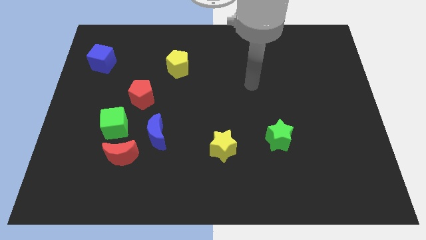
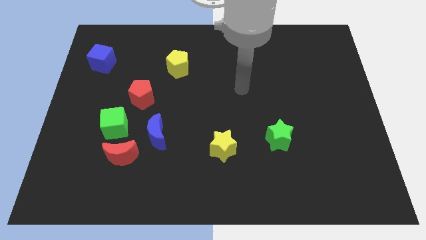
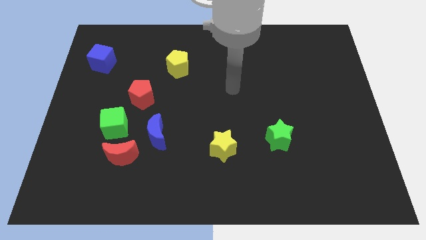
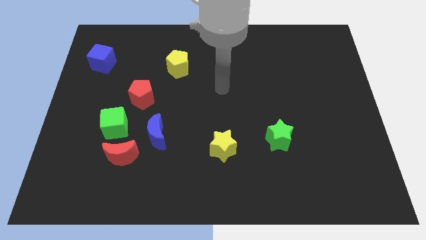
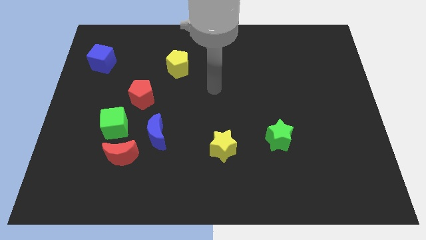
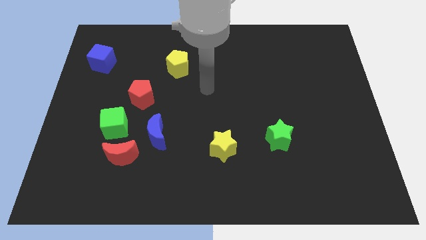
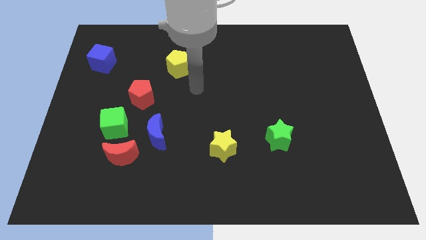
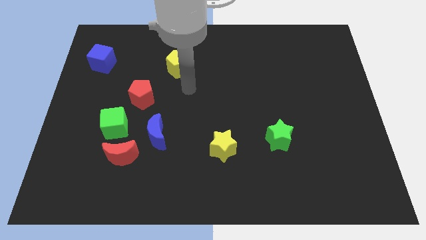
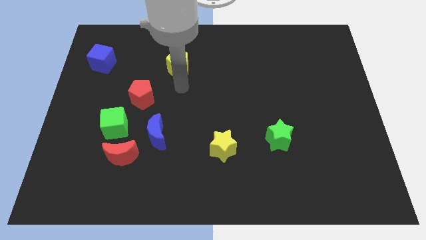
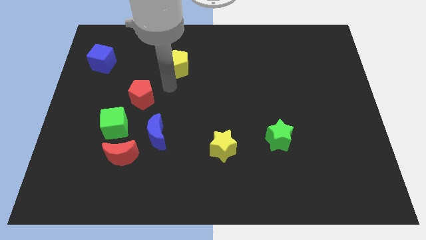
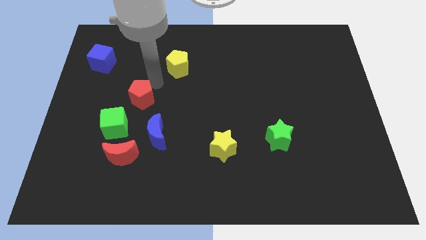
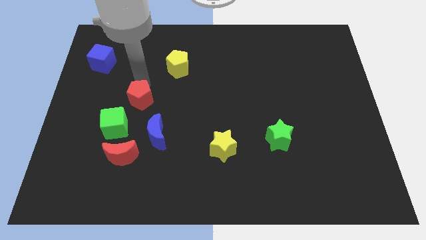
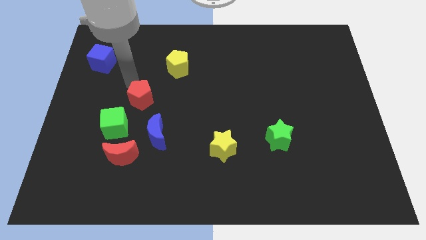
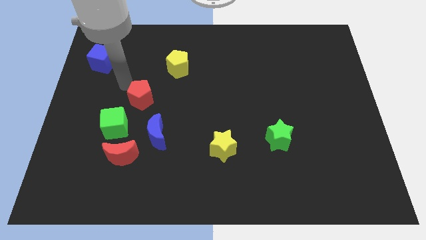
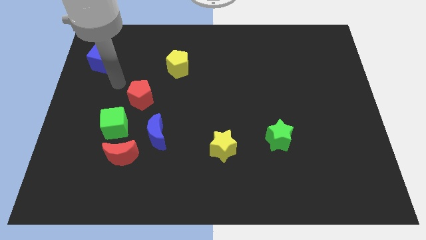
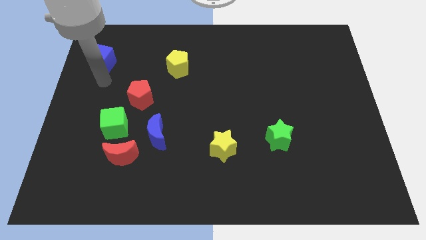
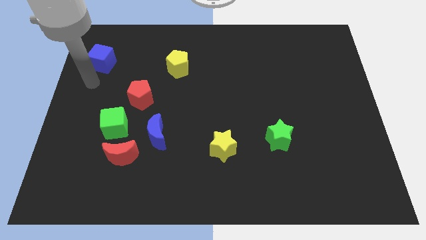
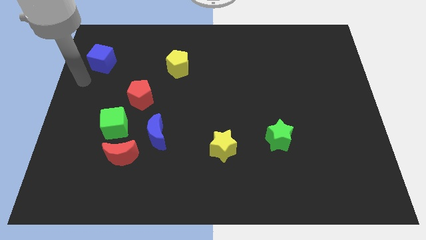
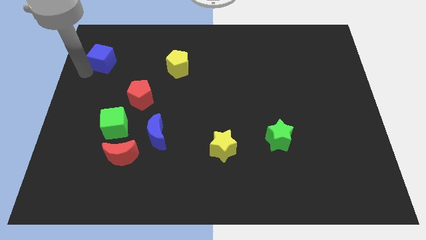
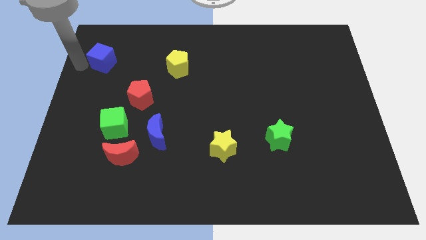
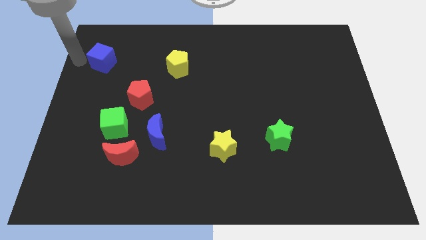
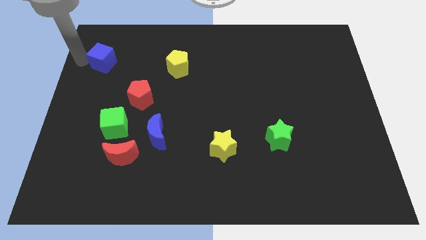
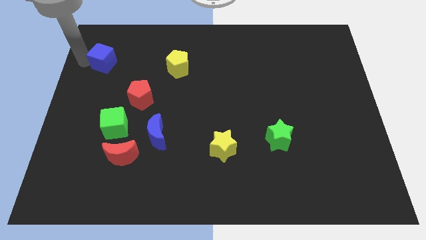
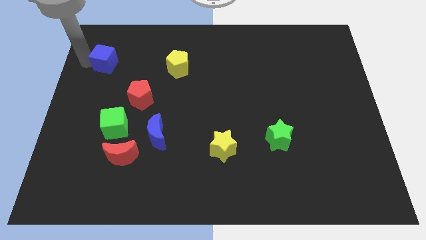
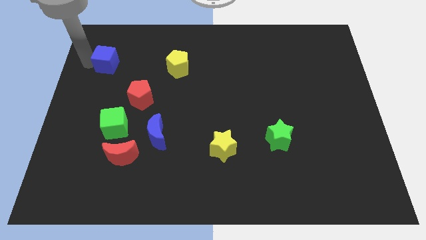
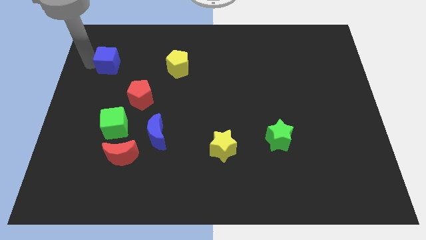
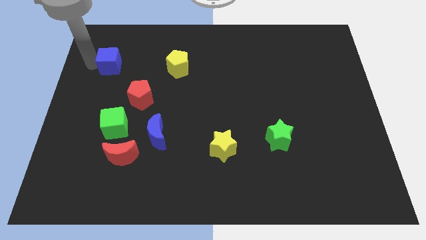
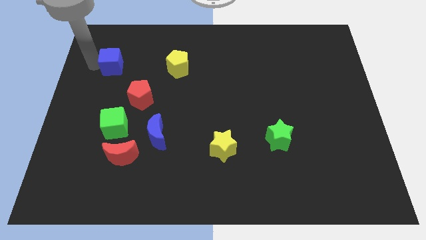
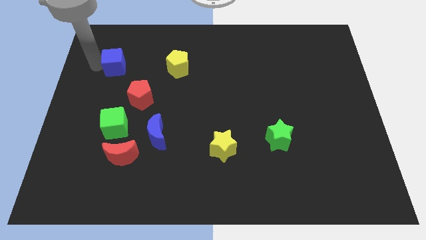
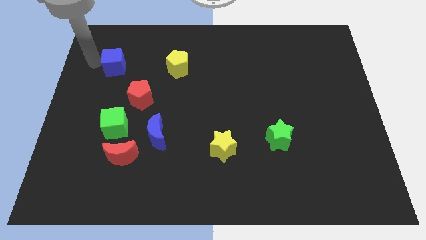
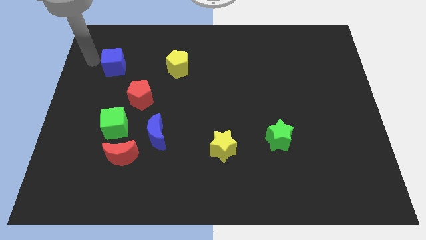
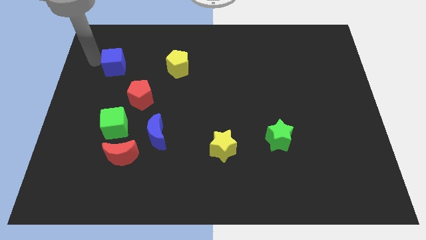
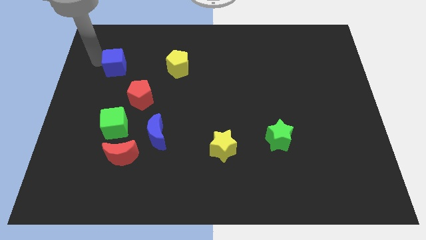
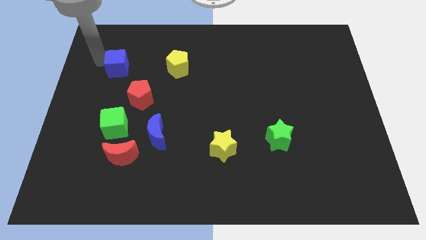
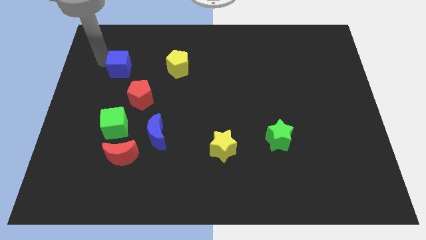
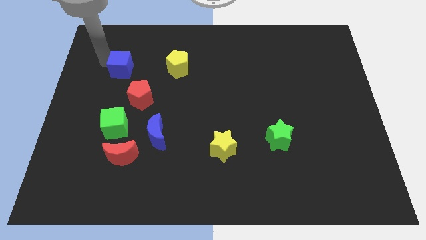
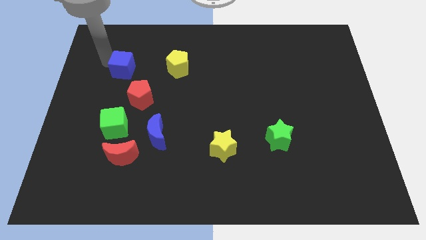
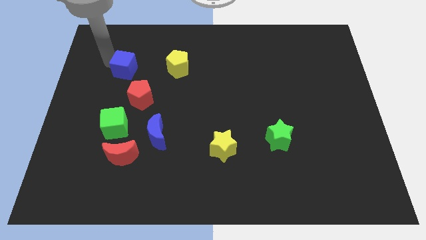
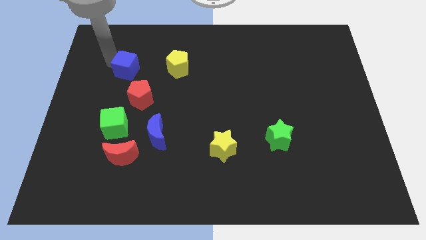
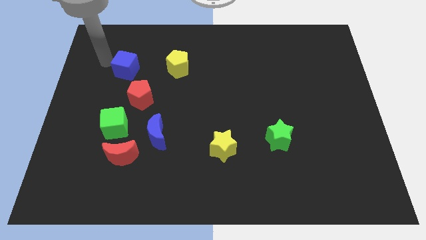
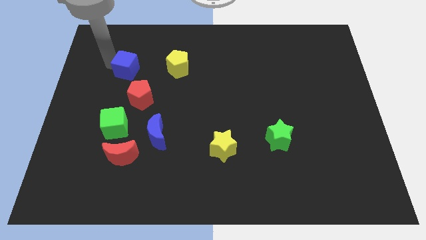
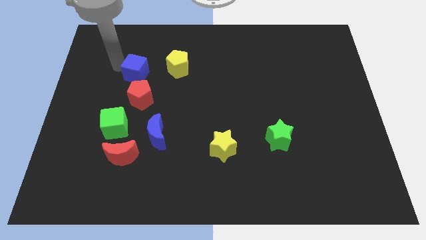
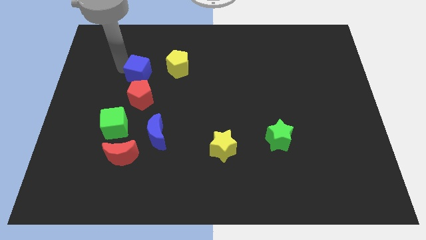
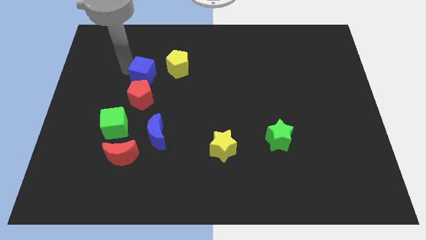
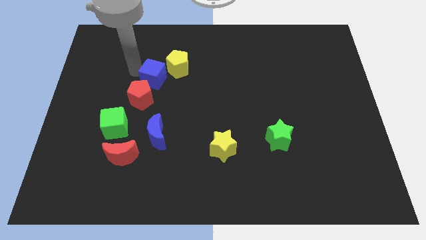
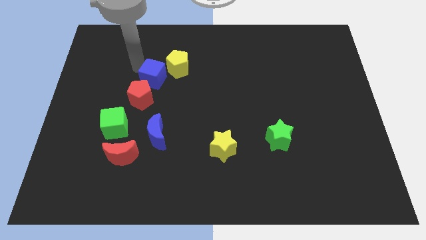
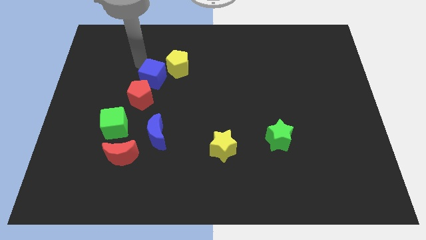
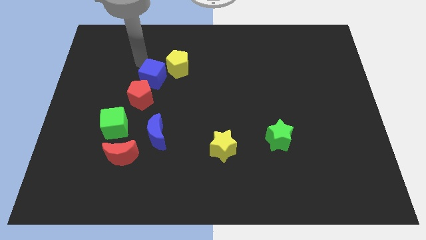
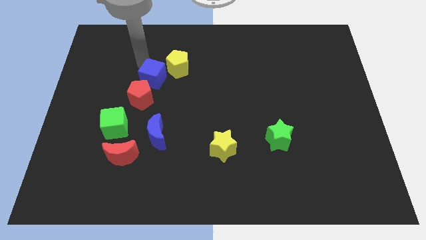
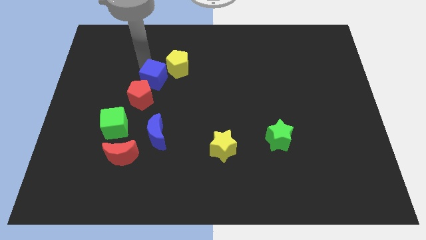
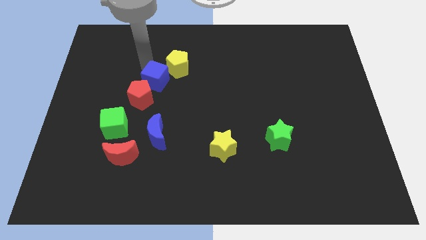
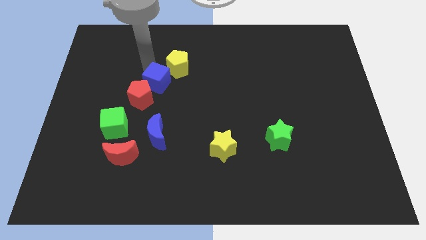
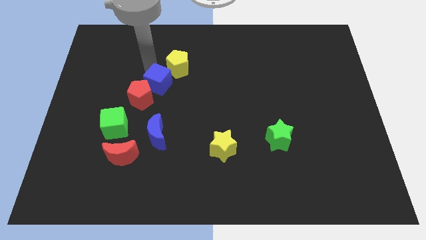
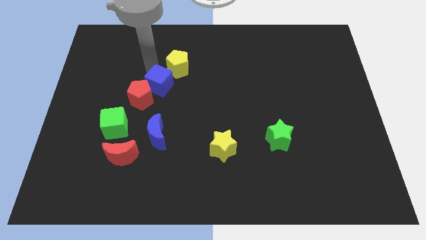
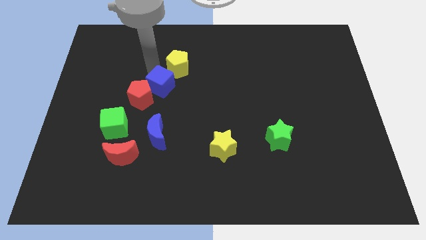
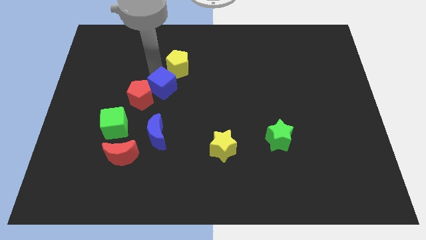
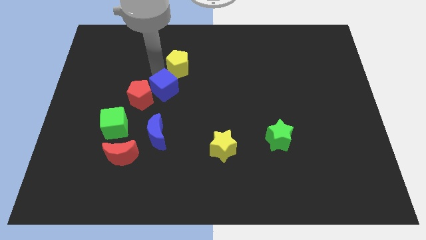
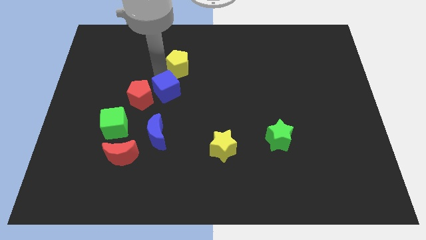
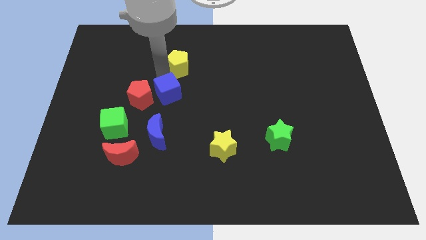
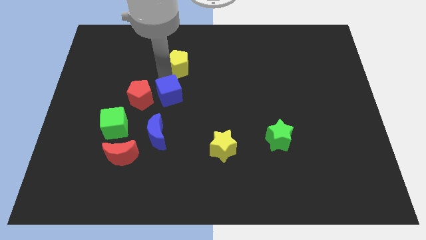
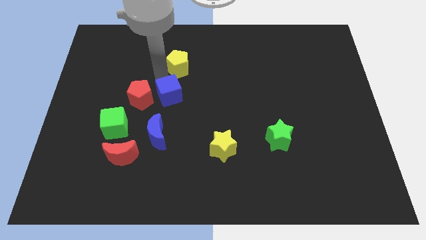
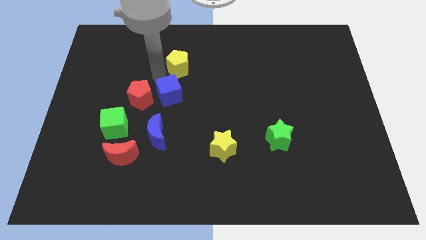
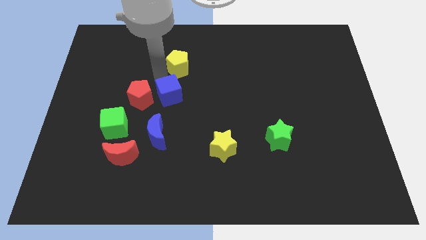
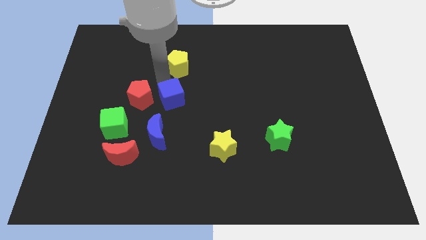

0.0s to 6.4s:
move the blue cube downwards and to the right diagonally

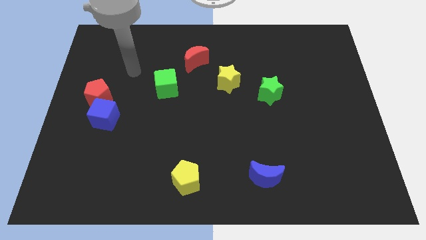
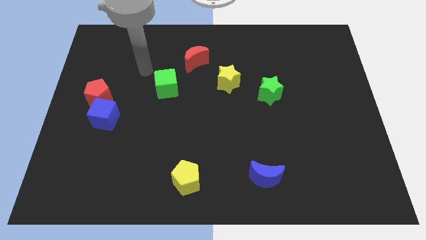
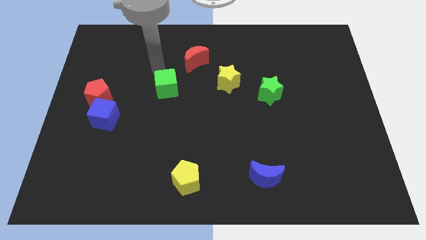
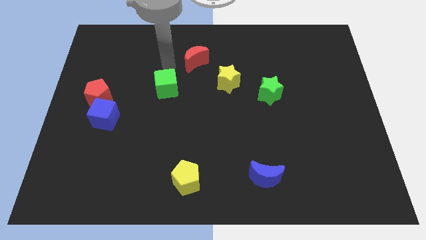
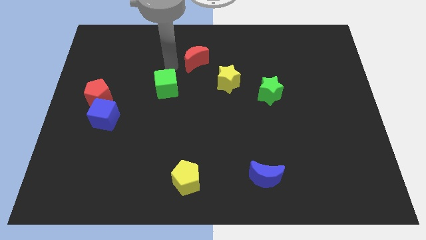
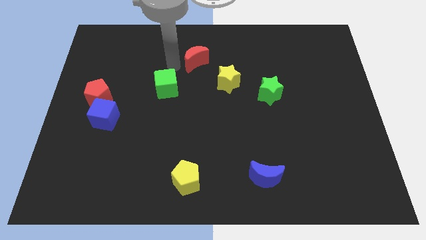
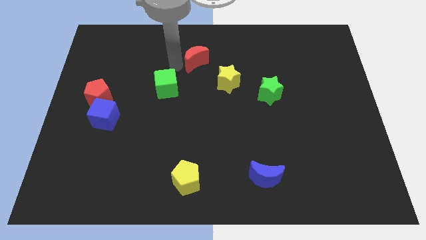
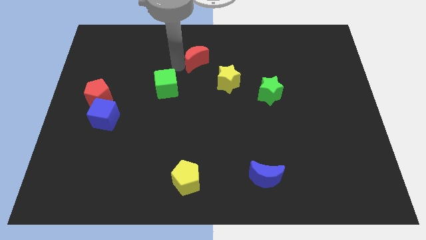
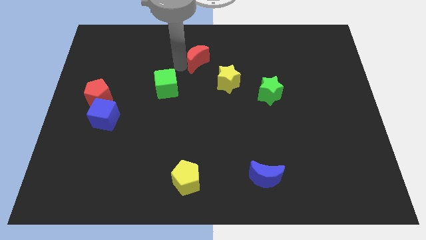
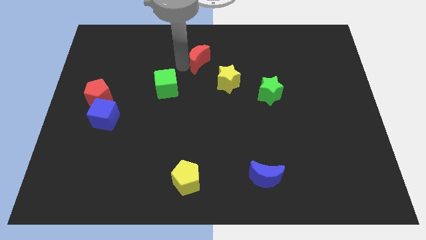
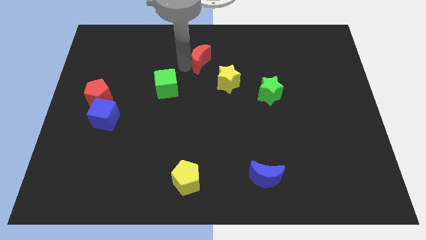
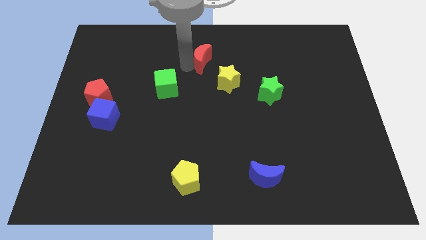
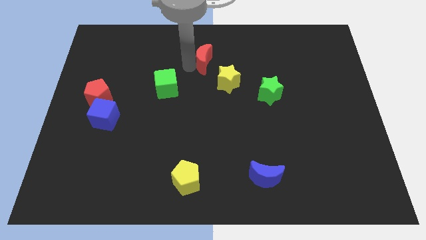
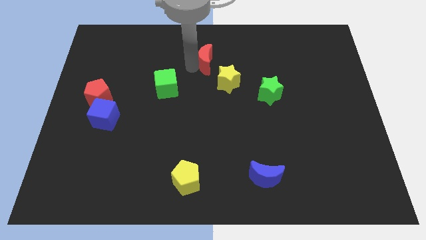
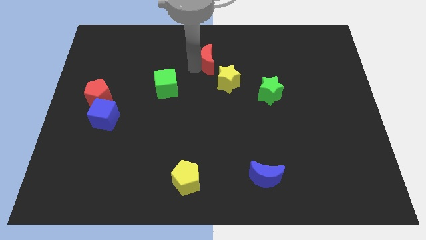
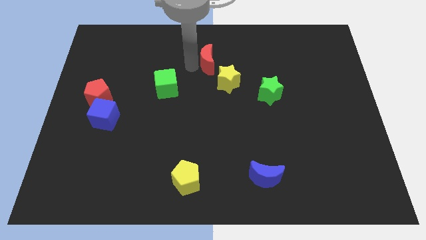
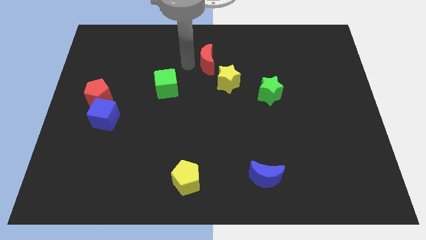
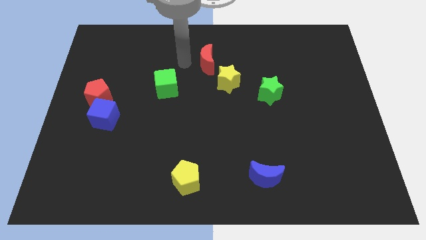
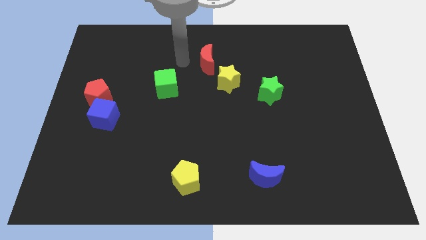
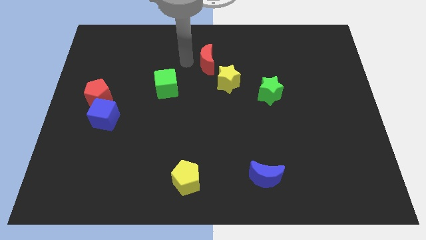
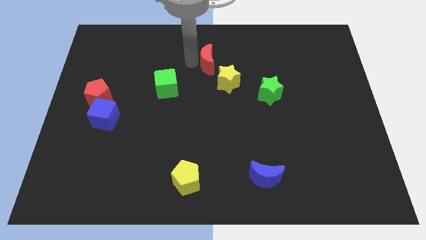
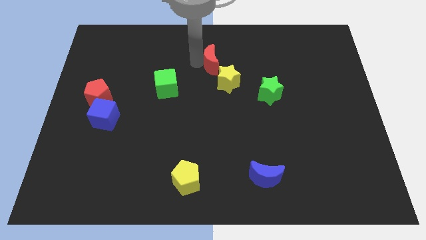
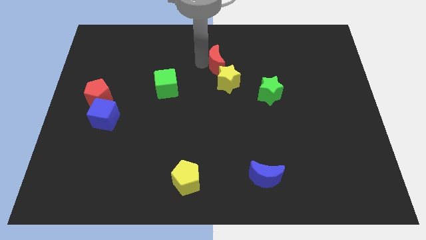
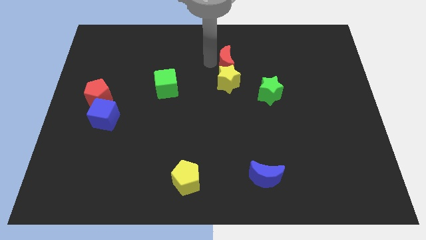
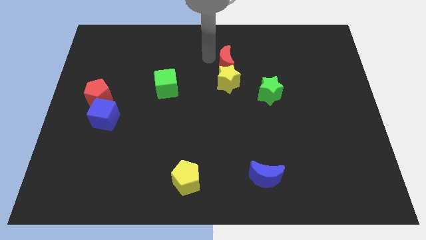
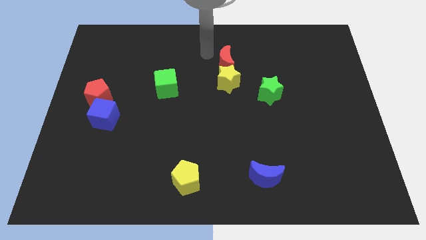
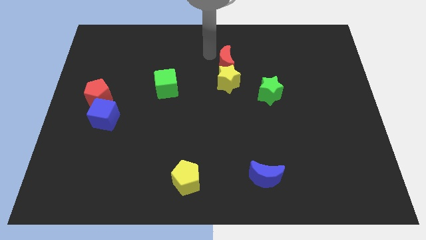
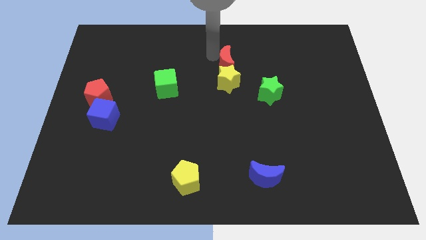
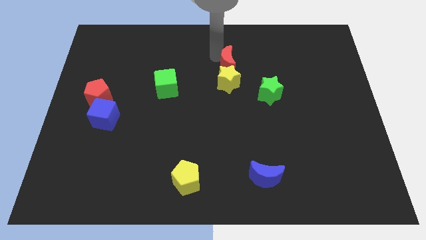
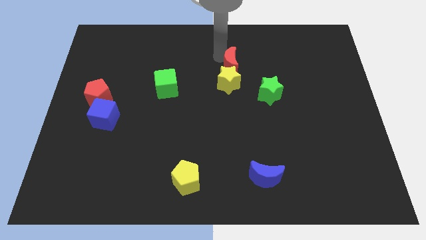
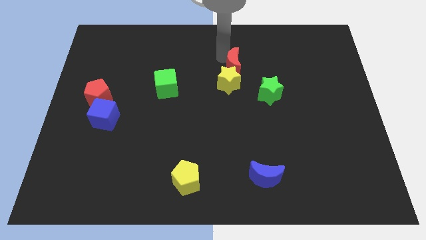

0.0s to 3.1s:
slightly slide the red moon down and to the right
